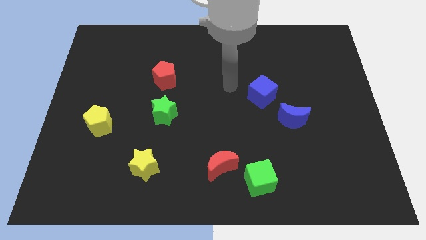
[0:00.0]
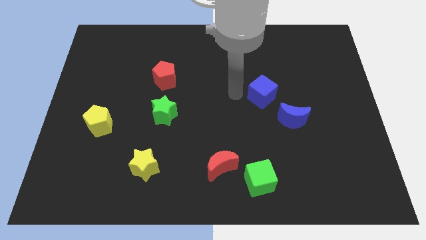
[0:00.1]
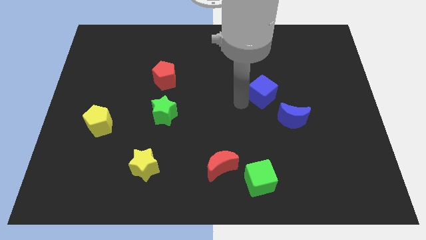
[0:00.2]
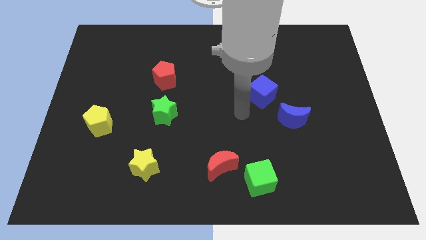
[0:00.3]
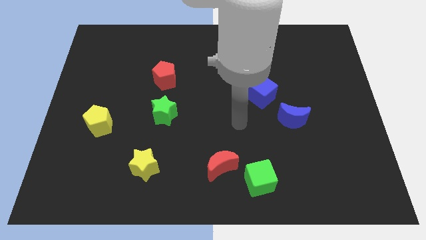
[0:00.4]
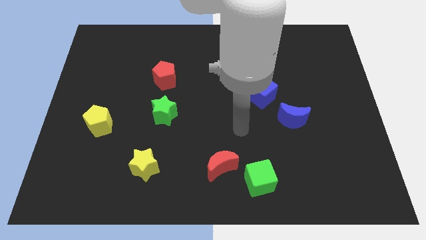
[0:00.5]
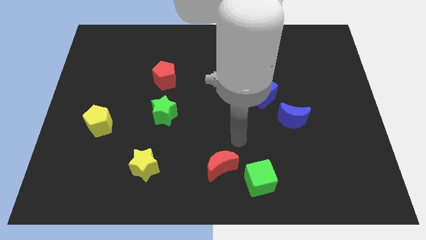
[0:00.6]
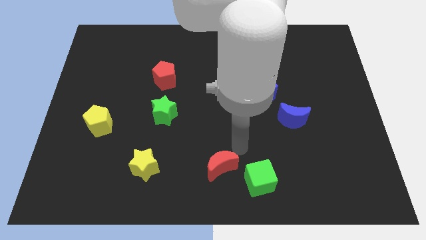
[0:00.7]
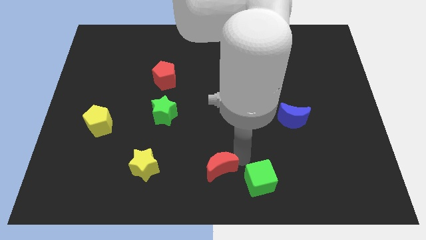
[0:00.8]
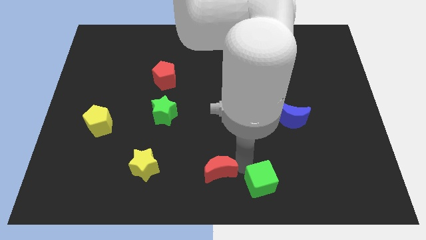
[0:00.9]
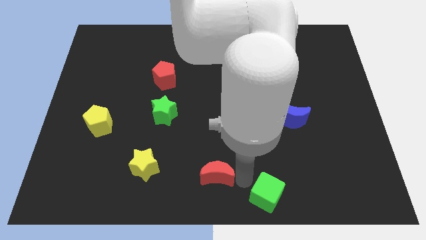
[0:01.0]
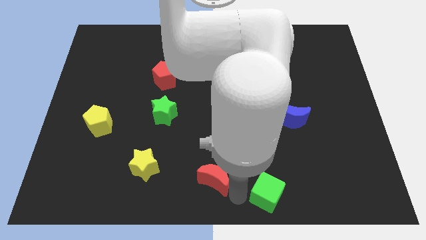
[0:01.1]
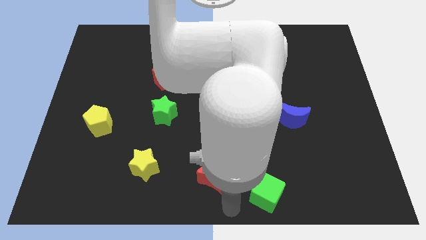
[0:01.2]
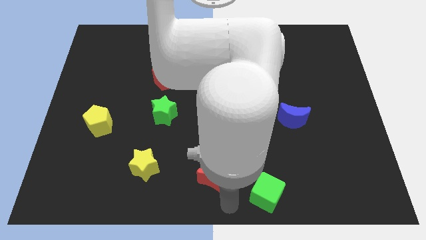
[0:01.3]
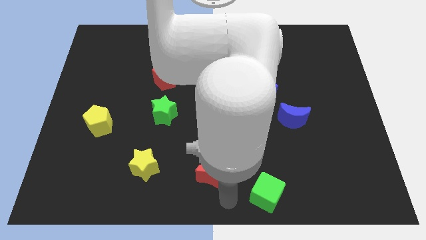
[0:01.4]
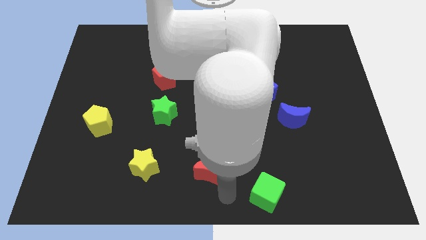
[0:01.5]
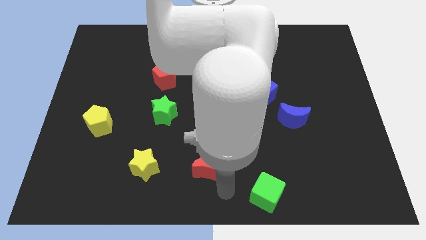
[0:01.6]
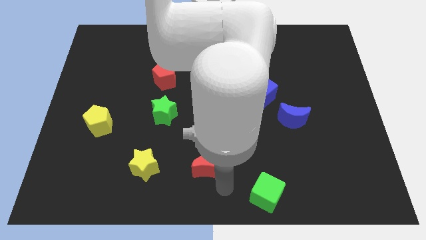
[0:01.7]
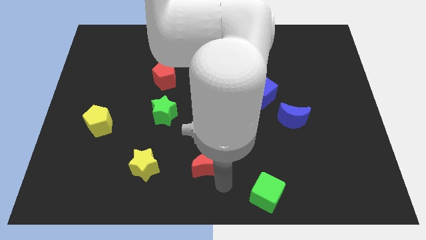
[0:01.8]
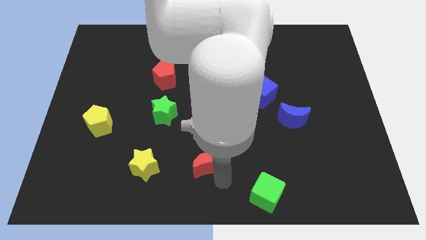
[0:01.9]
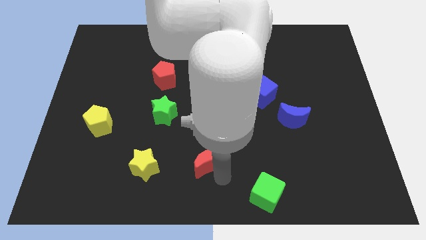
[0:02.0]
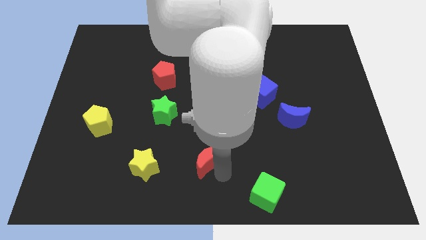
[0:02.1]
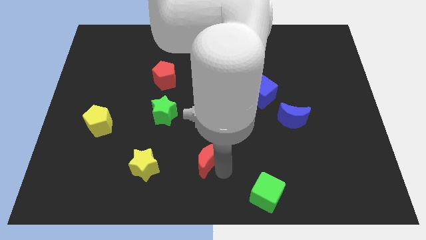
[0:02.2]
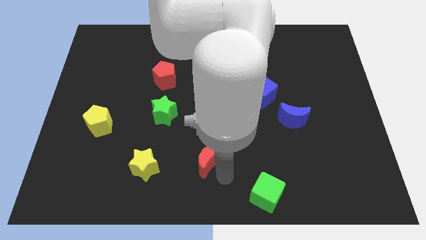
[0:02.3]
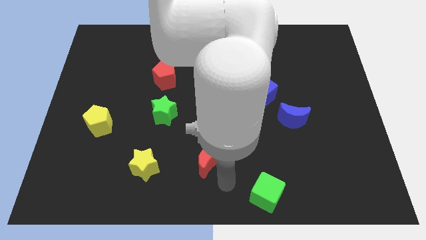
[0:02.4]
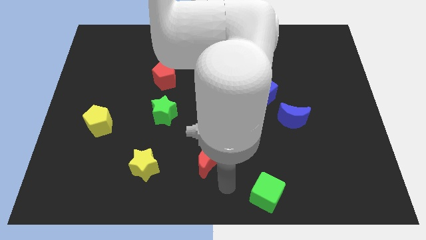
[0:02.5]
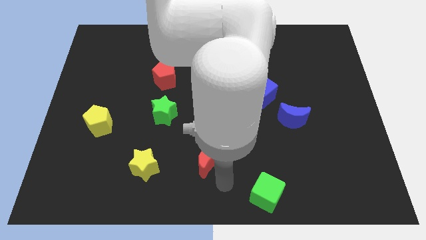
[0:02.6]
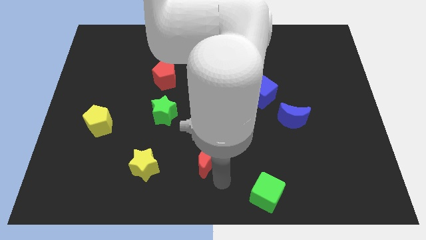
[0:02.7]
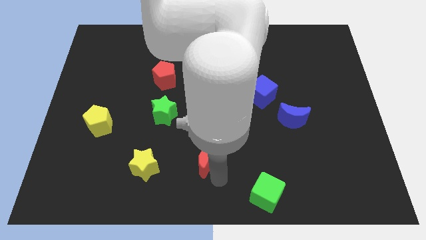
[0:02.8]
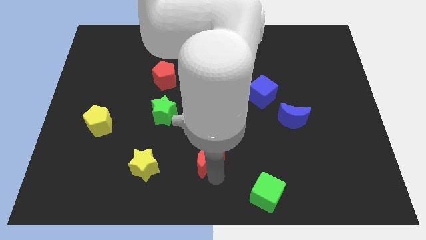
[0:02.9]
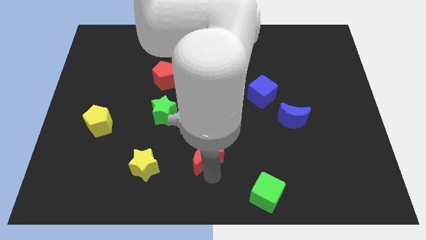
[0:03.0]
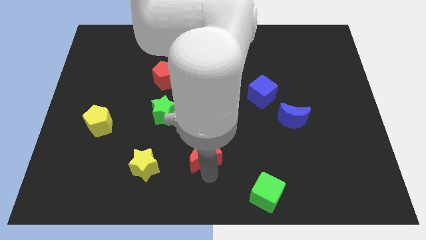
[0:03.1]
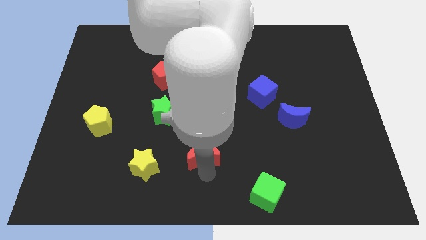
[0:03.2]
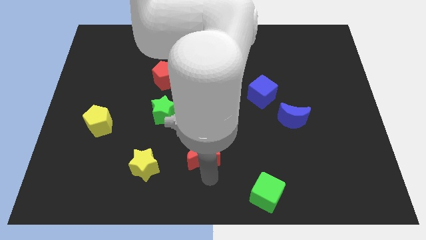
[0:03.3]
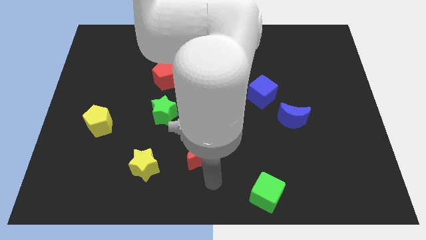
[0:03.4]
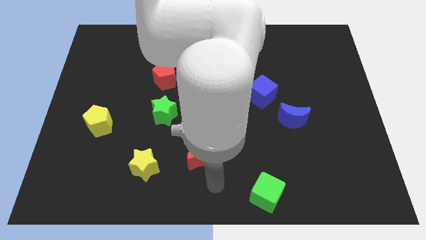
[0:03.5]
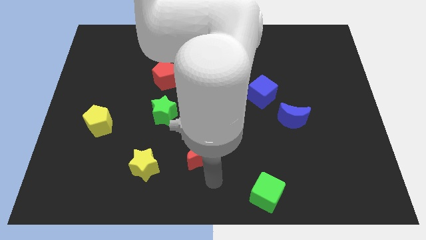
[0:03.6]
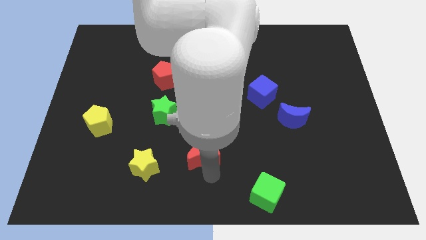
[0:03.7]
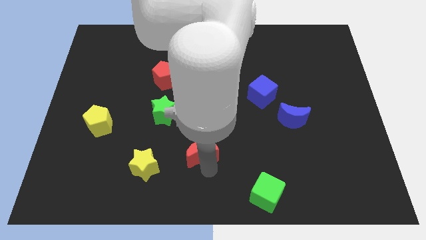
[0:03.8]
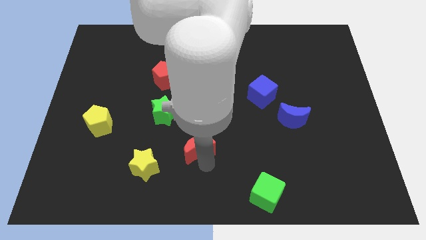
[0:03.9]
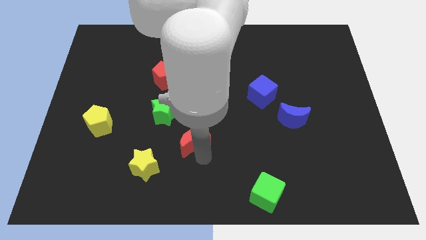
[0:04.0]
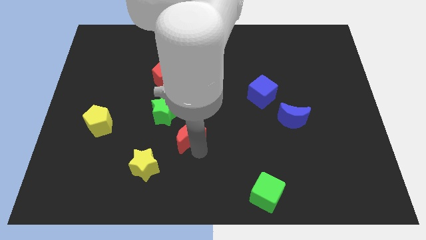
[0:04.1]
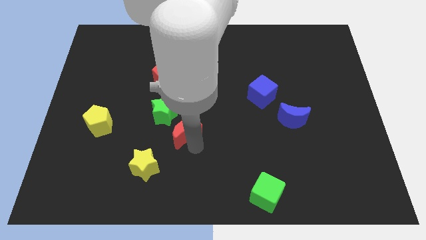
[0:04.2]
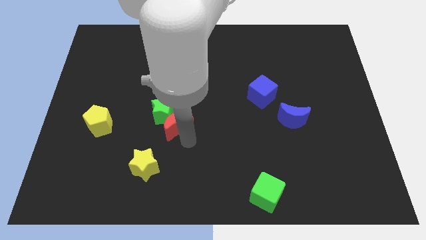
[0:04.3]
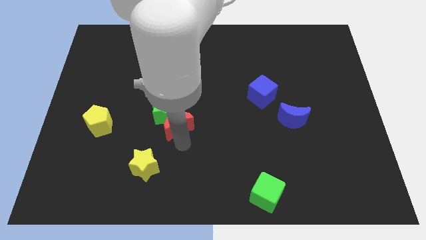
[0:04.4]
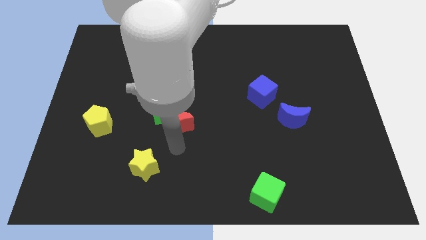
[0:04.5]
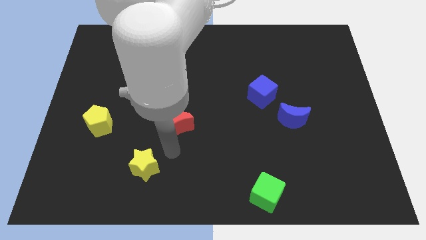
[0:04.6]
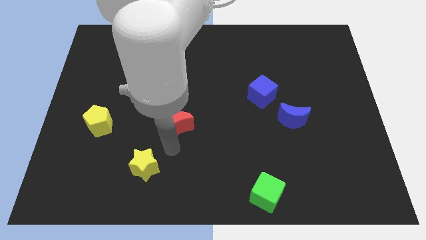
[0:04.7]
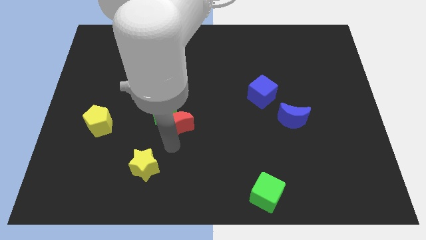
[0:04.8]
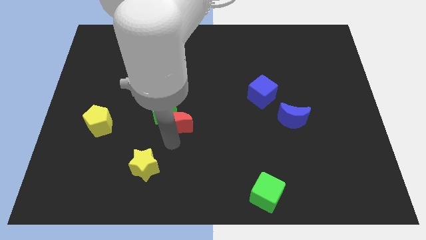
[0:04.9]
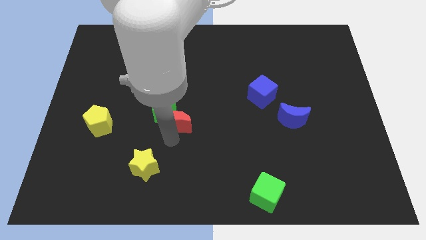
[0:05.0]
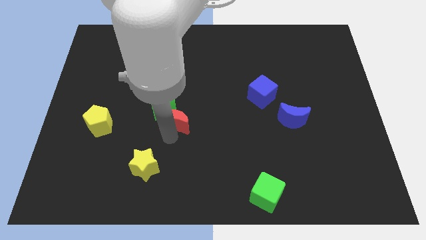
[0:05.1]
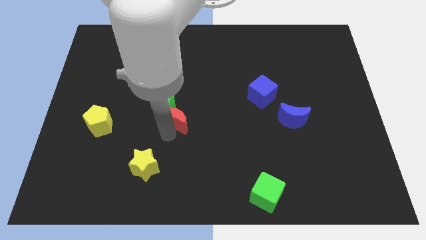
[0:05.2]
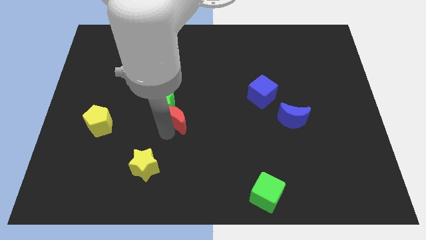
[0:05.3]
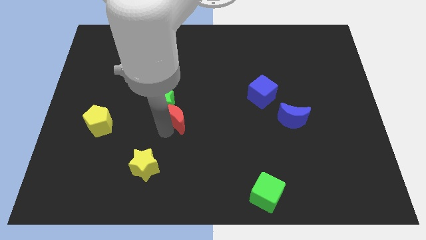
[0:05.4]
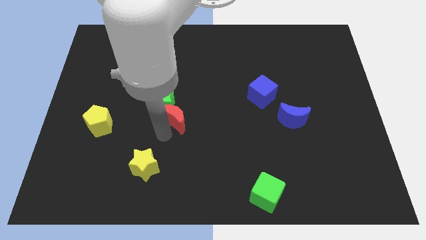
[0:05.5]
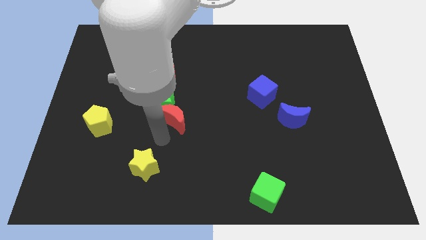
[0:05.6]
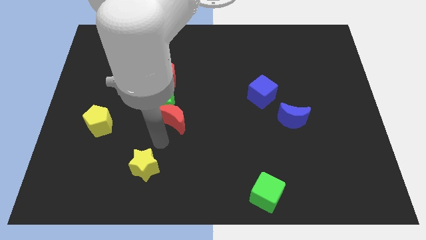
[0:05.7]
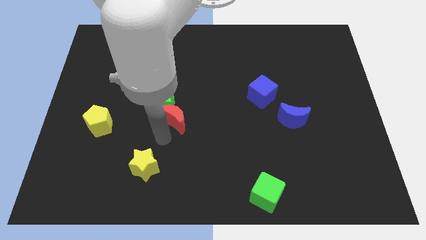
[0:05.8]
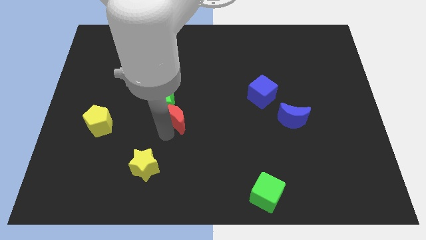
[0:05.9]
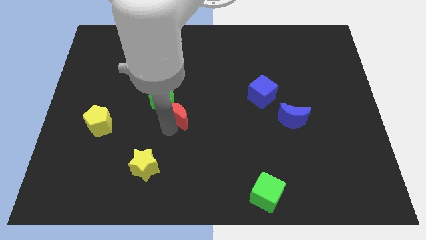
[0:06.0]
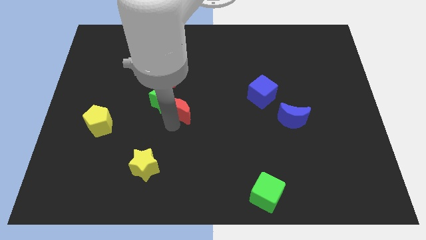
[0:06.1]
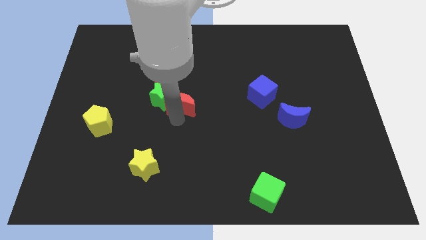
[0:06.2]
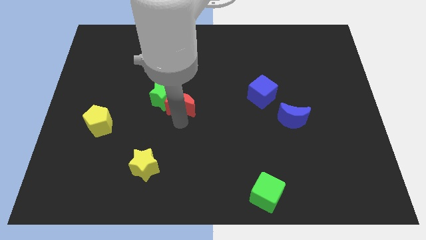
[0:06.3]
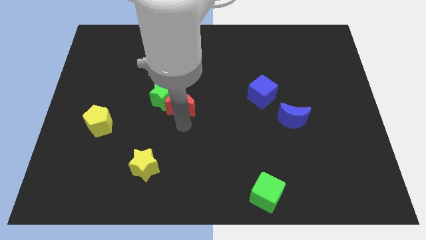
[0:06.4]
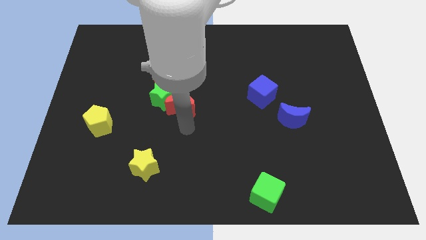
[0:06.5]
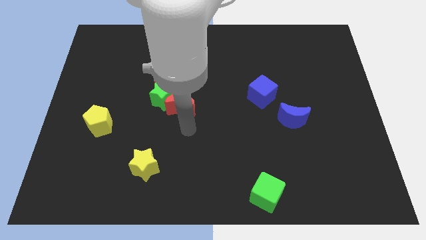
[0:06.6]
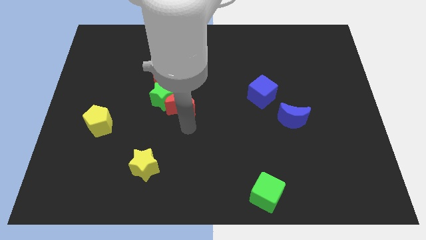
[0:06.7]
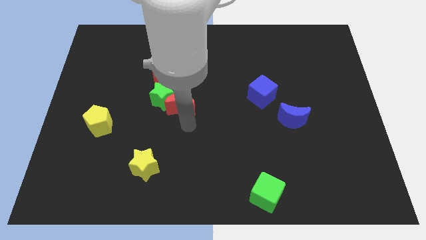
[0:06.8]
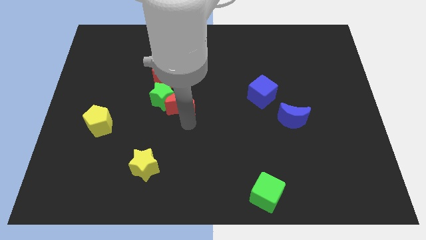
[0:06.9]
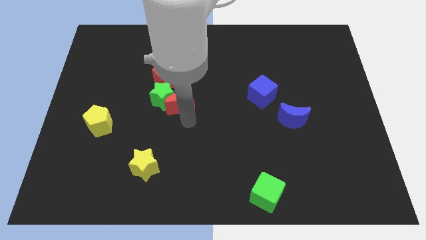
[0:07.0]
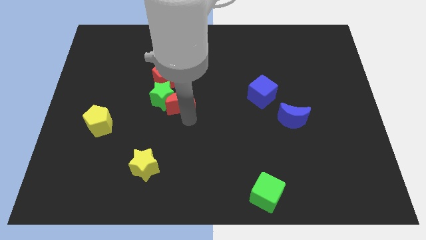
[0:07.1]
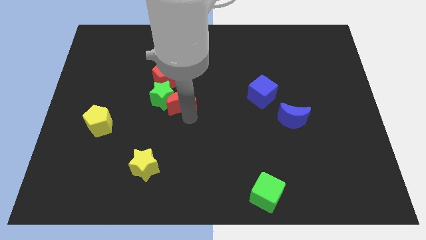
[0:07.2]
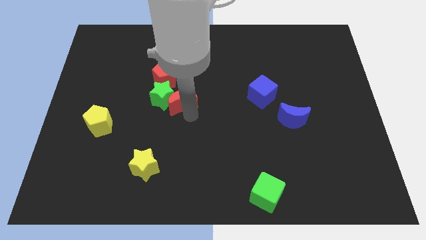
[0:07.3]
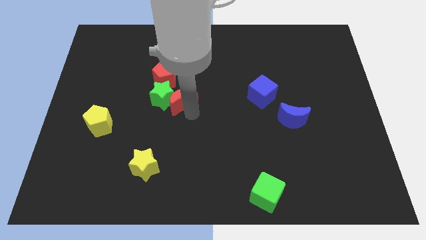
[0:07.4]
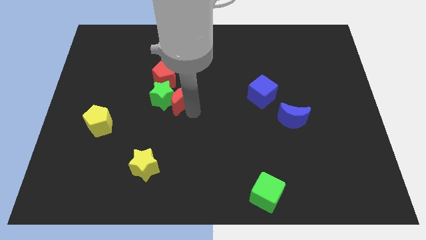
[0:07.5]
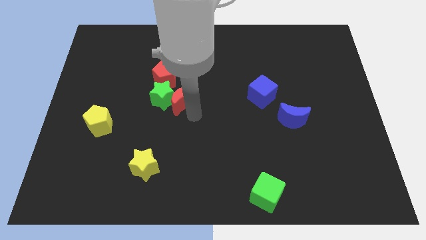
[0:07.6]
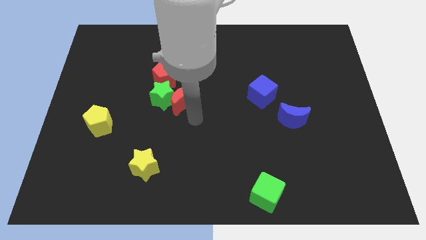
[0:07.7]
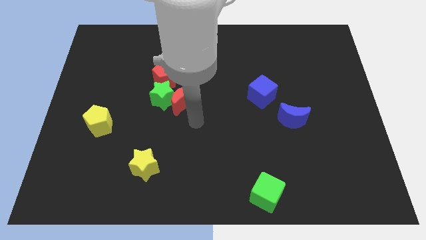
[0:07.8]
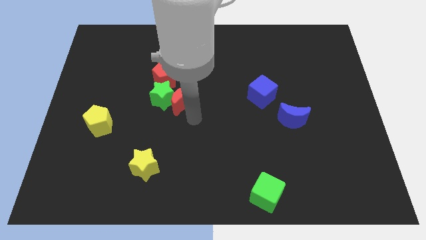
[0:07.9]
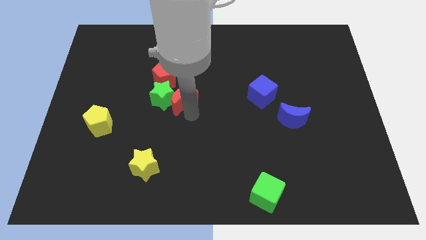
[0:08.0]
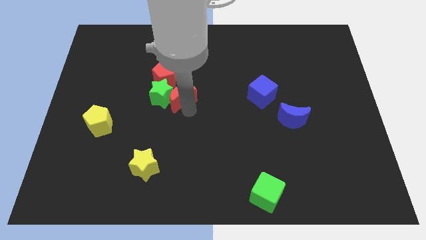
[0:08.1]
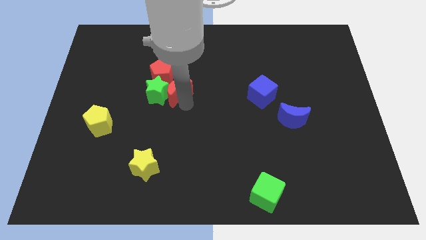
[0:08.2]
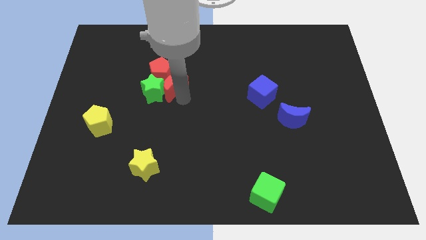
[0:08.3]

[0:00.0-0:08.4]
move the red moon close to the red pentagon

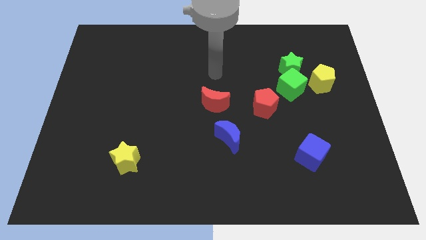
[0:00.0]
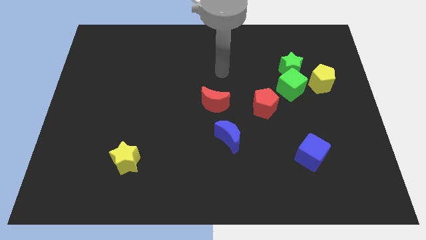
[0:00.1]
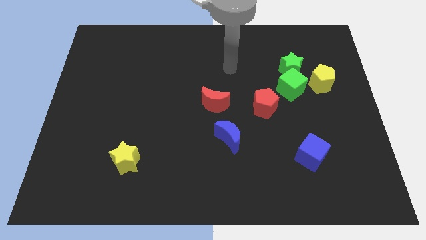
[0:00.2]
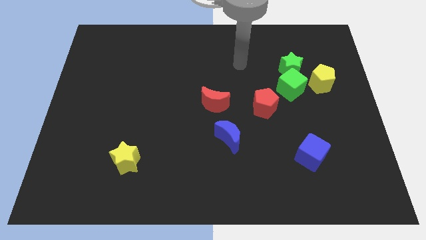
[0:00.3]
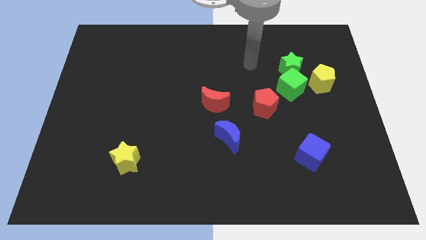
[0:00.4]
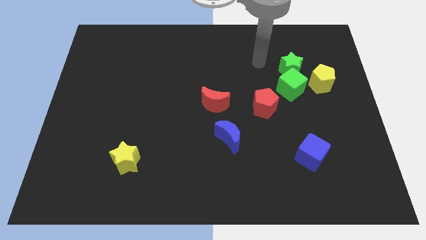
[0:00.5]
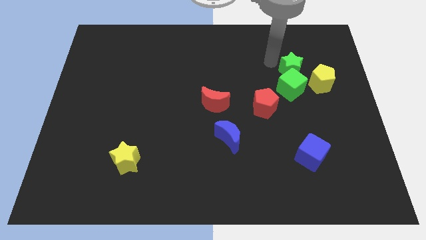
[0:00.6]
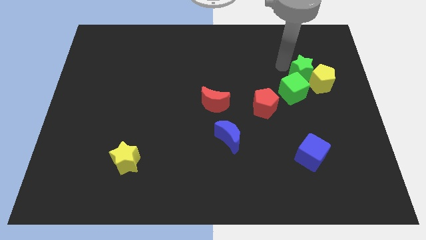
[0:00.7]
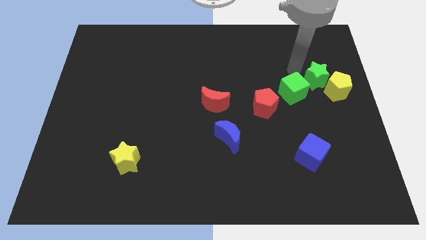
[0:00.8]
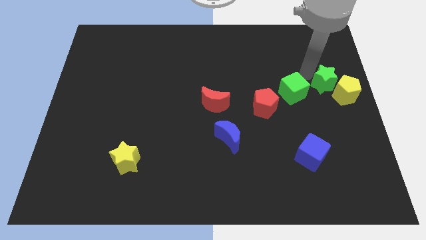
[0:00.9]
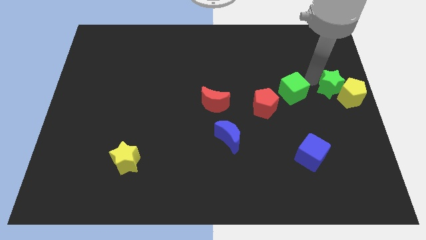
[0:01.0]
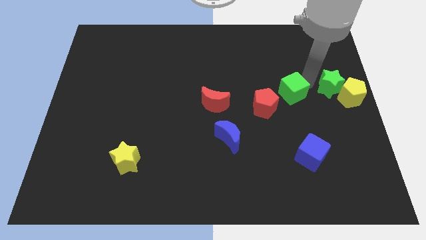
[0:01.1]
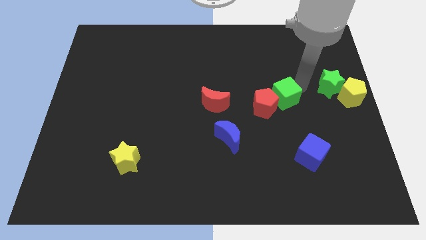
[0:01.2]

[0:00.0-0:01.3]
slide the green cube towards the red pentagon
